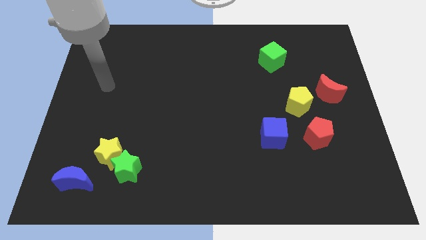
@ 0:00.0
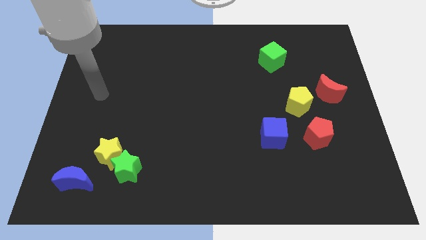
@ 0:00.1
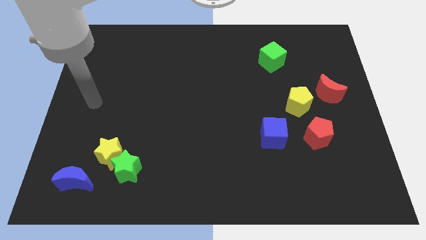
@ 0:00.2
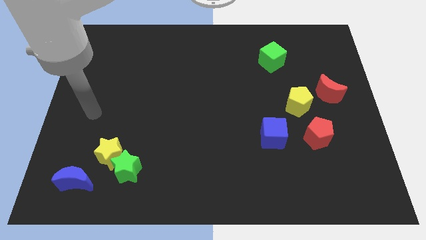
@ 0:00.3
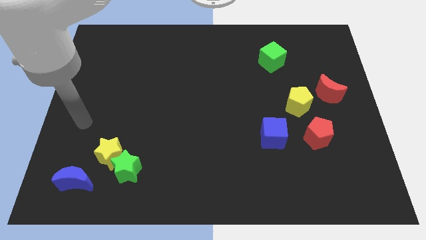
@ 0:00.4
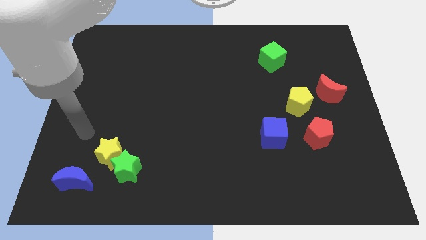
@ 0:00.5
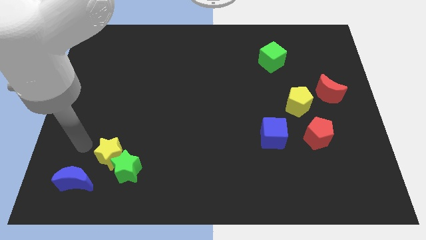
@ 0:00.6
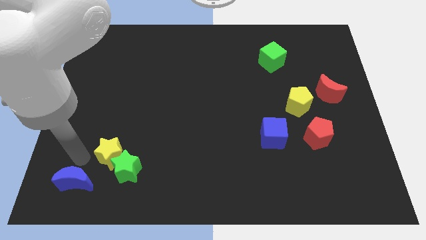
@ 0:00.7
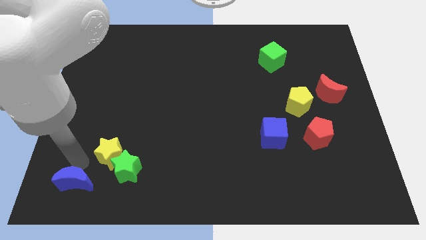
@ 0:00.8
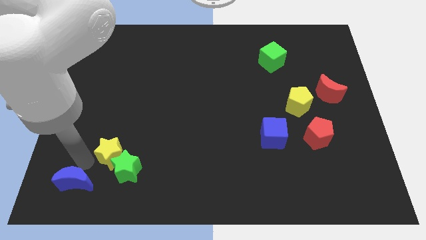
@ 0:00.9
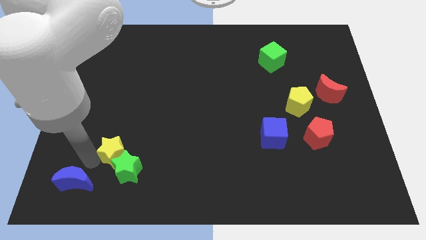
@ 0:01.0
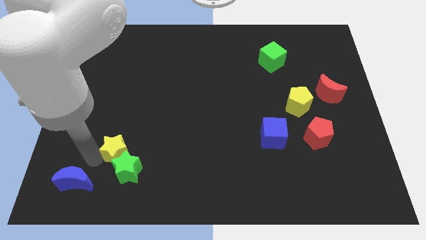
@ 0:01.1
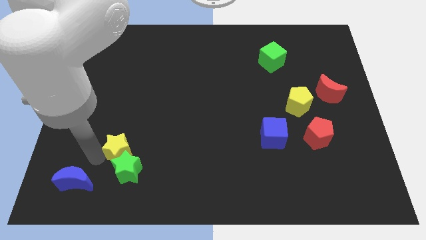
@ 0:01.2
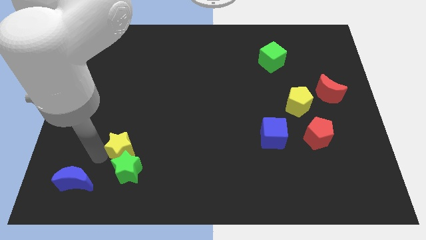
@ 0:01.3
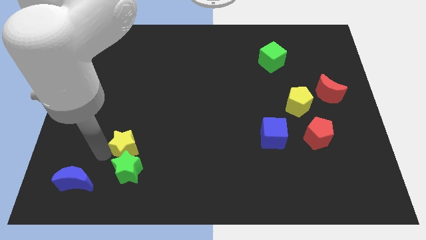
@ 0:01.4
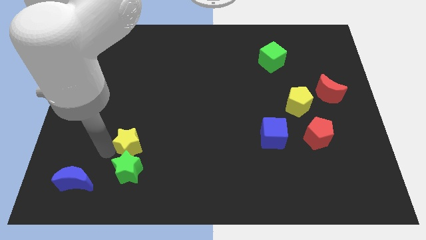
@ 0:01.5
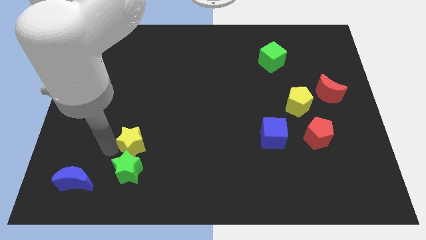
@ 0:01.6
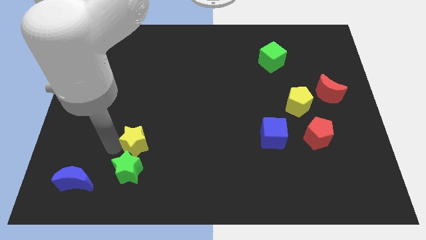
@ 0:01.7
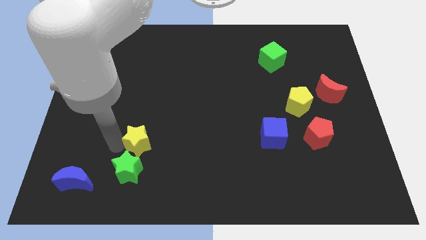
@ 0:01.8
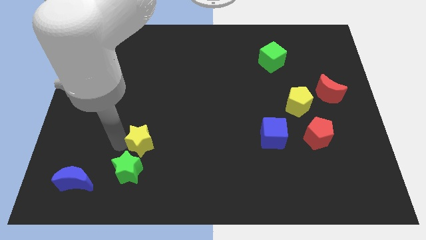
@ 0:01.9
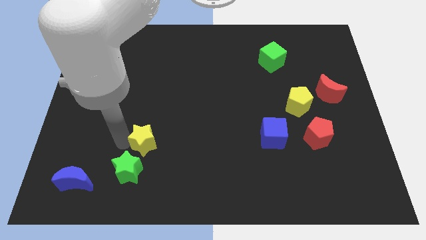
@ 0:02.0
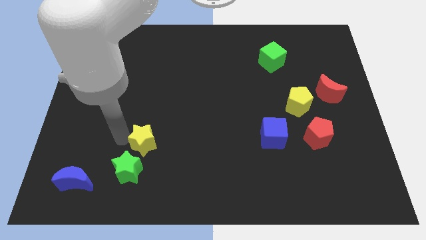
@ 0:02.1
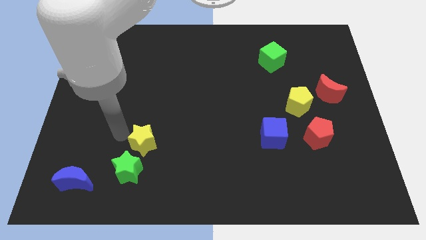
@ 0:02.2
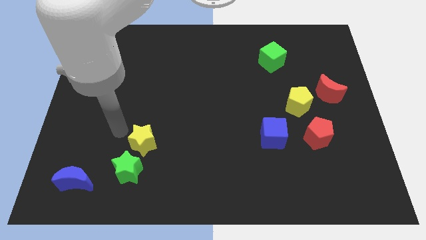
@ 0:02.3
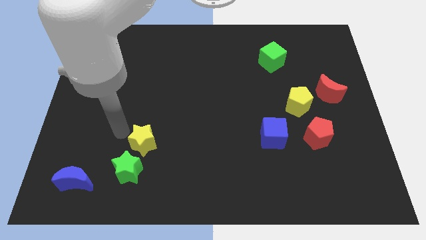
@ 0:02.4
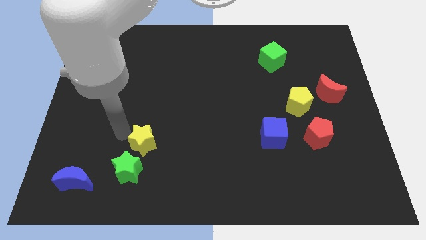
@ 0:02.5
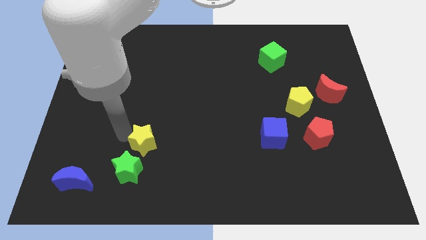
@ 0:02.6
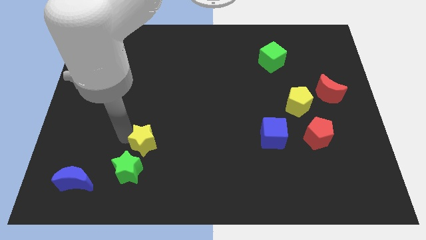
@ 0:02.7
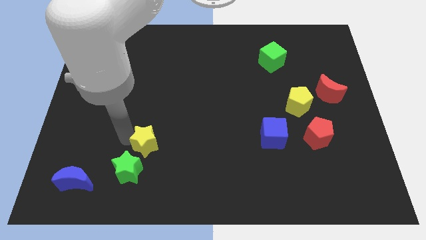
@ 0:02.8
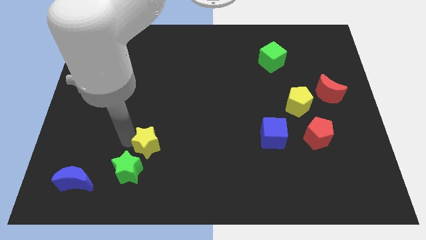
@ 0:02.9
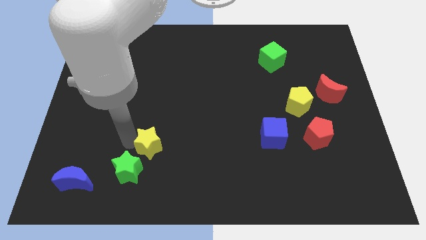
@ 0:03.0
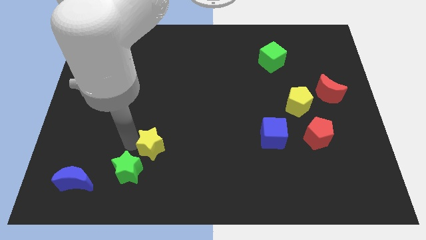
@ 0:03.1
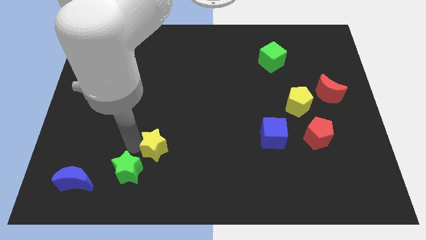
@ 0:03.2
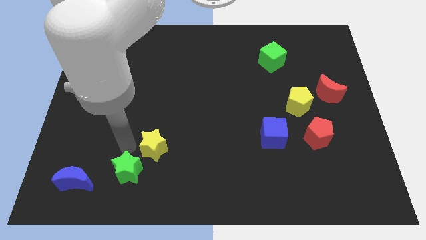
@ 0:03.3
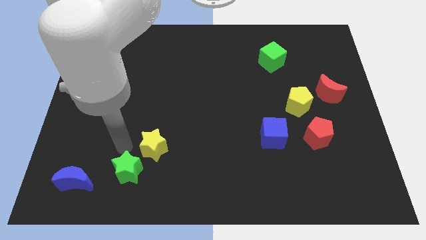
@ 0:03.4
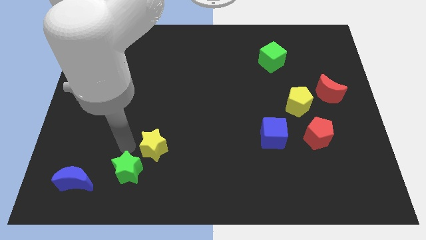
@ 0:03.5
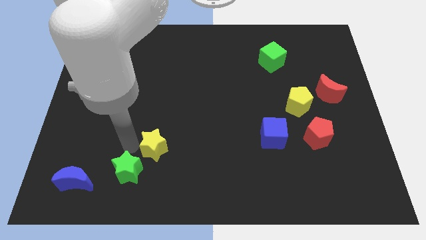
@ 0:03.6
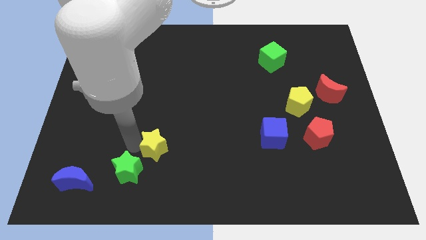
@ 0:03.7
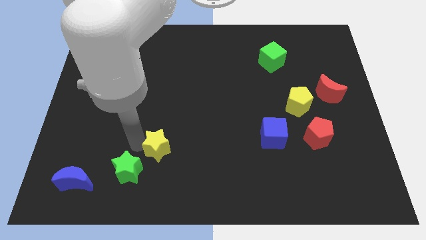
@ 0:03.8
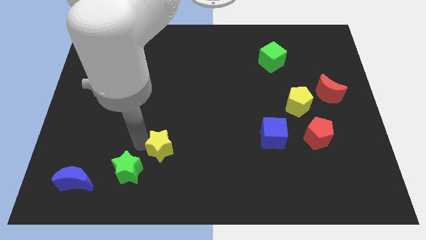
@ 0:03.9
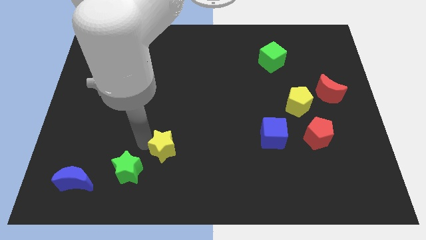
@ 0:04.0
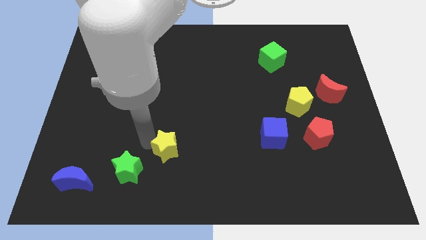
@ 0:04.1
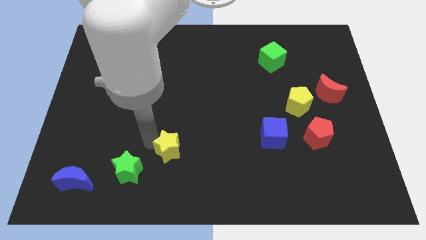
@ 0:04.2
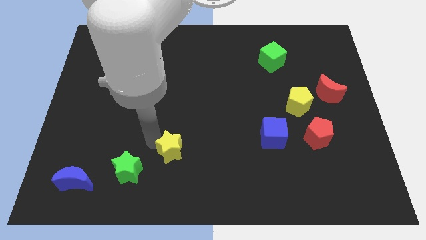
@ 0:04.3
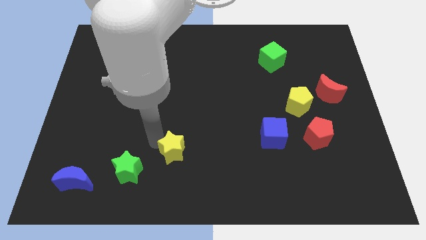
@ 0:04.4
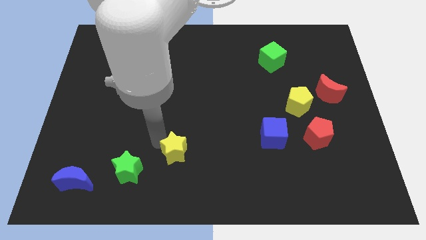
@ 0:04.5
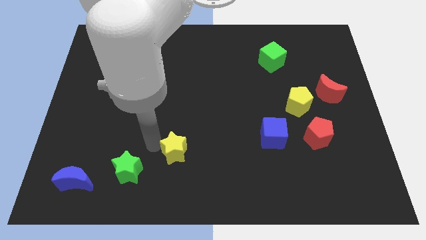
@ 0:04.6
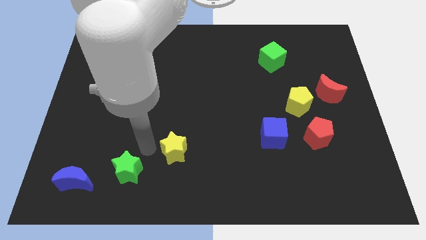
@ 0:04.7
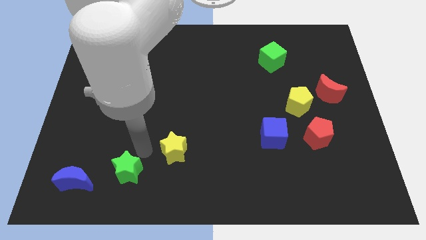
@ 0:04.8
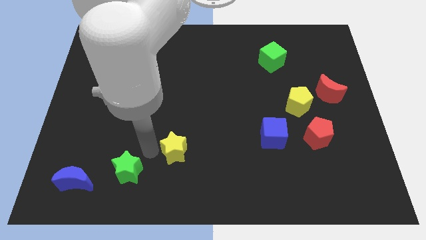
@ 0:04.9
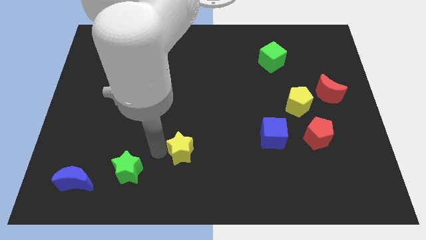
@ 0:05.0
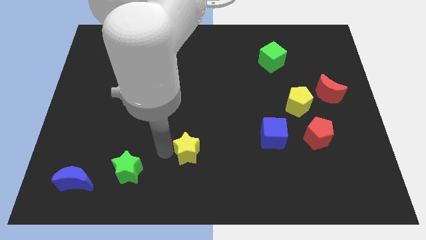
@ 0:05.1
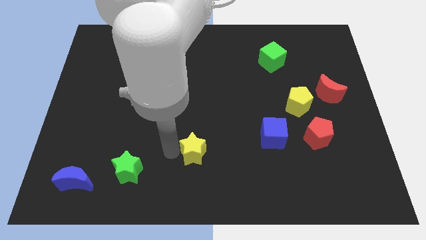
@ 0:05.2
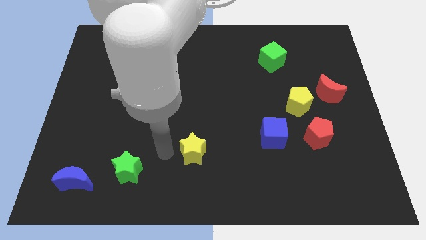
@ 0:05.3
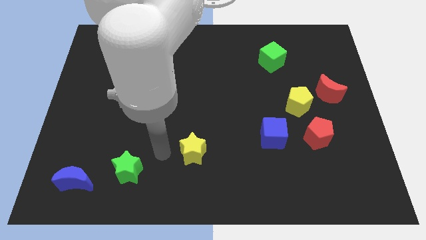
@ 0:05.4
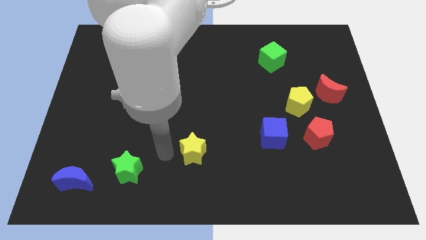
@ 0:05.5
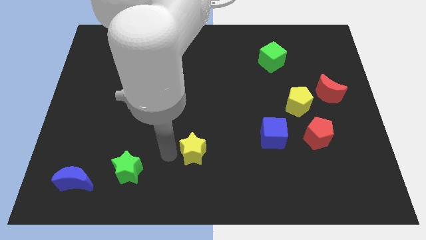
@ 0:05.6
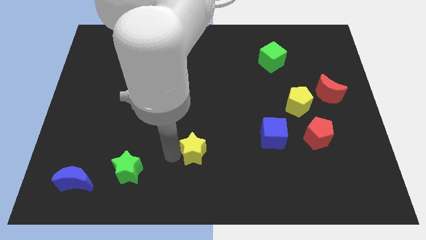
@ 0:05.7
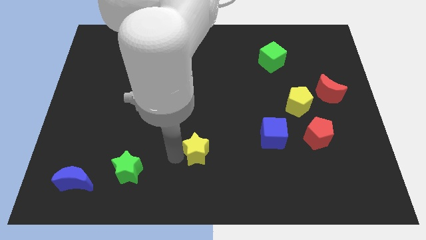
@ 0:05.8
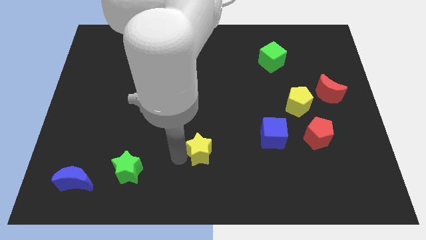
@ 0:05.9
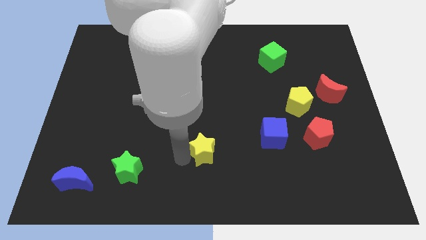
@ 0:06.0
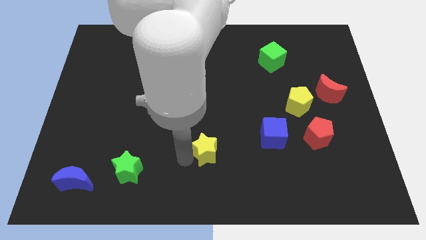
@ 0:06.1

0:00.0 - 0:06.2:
push the yellow star right

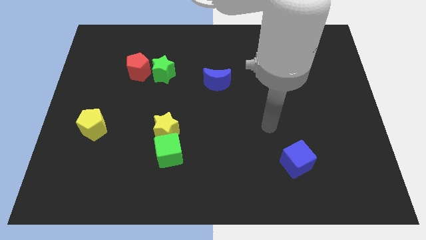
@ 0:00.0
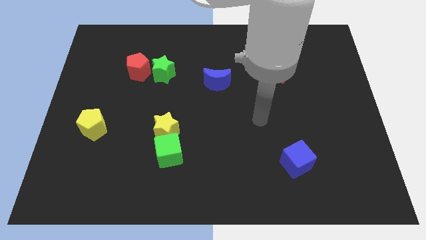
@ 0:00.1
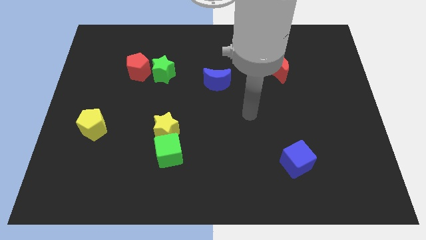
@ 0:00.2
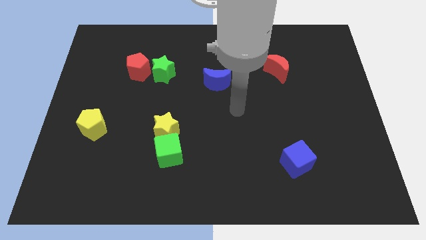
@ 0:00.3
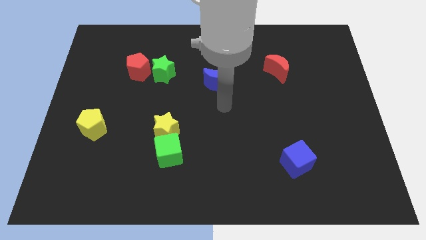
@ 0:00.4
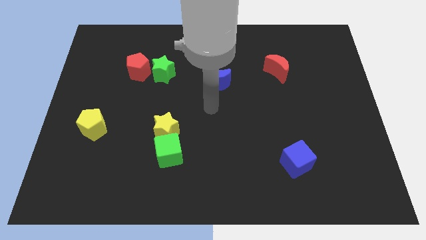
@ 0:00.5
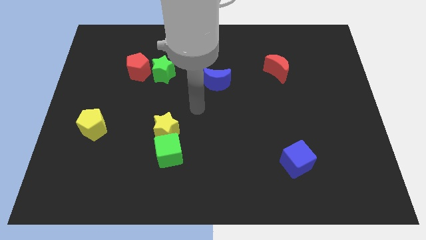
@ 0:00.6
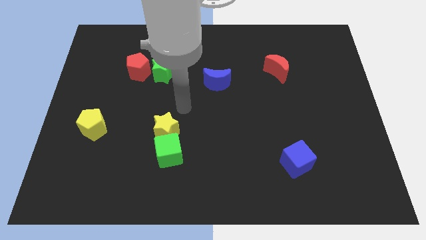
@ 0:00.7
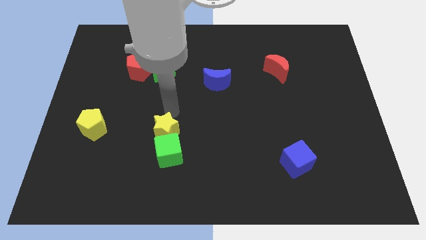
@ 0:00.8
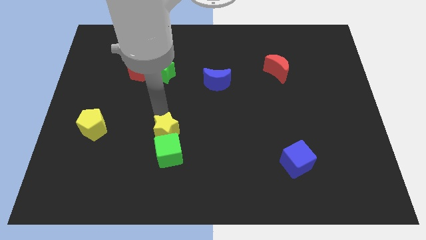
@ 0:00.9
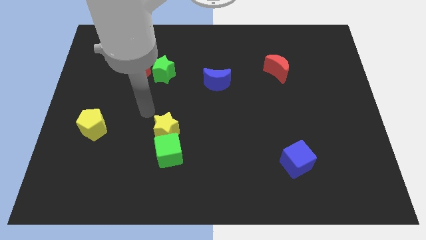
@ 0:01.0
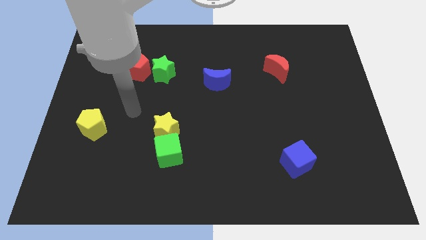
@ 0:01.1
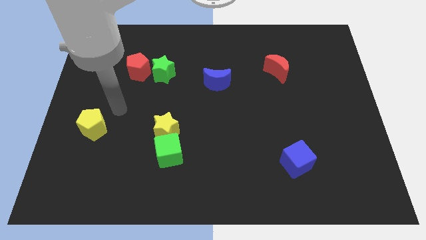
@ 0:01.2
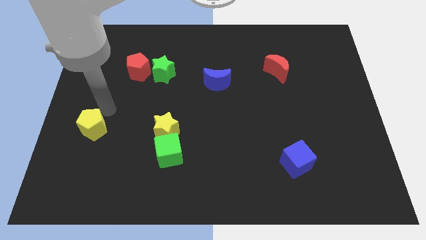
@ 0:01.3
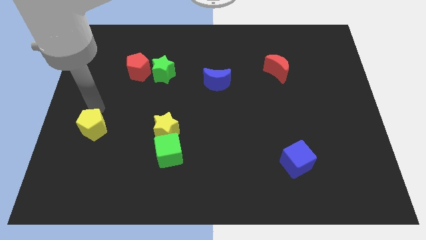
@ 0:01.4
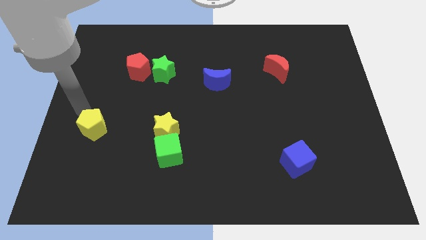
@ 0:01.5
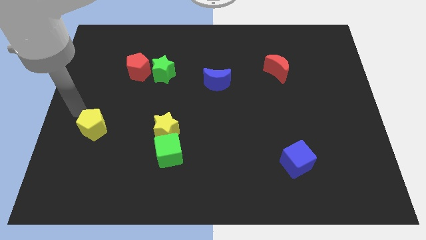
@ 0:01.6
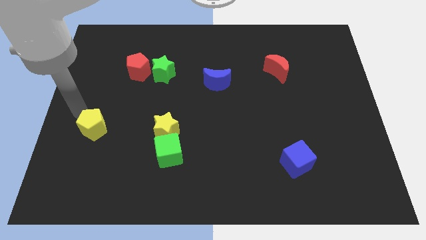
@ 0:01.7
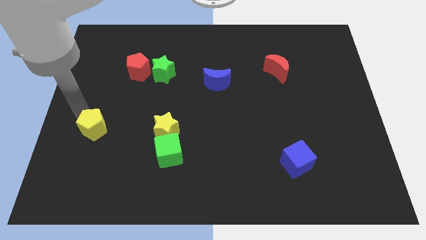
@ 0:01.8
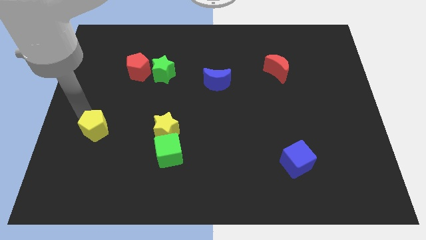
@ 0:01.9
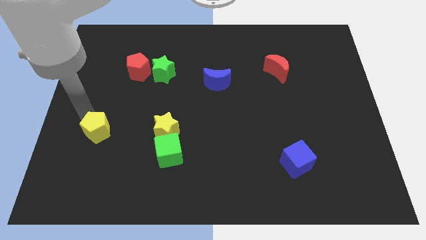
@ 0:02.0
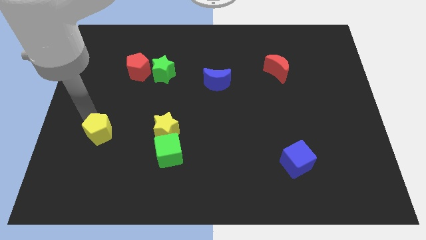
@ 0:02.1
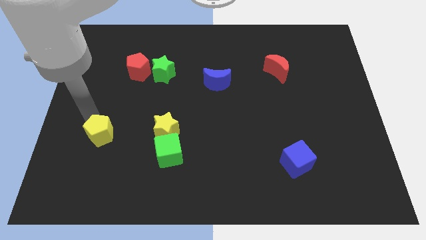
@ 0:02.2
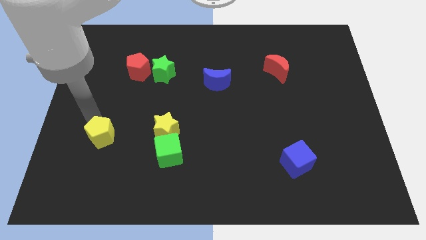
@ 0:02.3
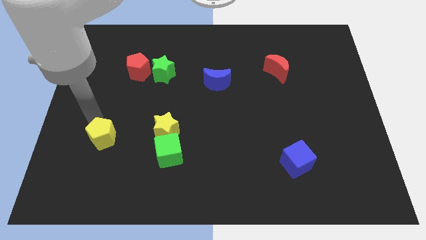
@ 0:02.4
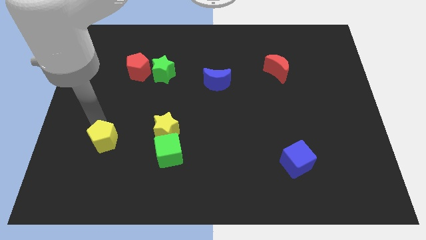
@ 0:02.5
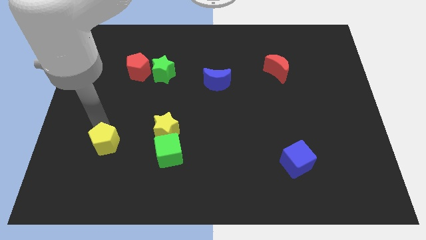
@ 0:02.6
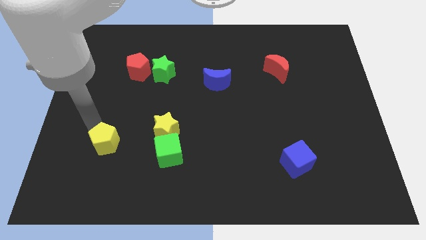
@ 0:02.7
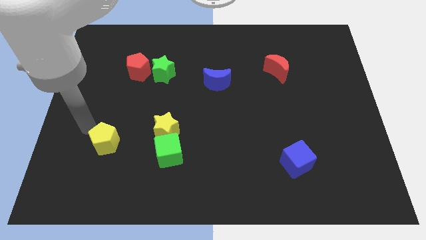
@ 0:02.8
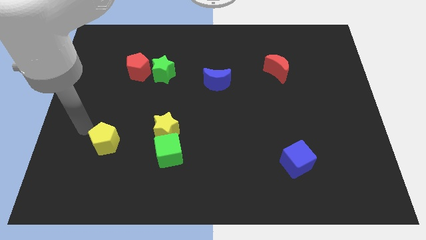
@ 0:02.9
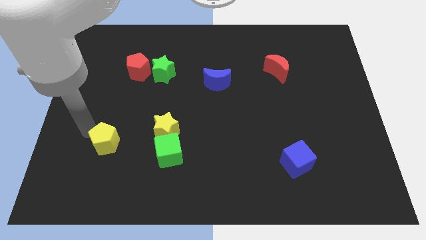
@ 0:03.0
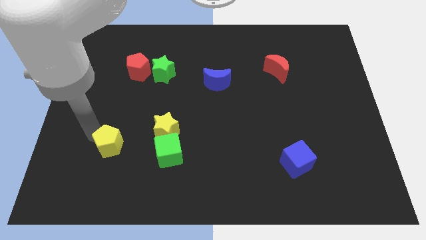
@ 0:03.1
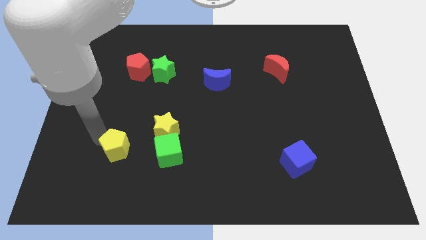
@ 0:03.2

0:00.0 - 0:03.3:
push the yellow pentagon down and then to the right a little
